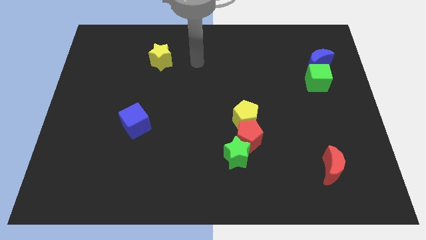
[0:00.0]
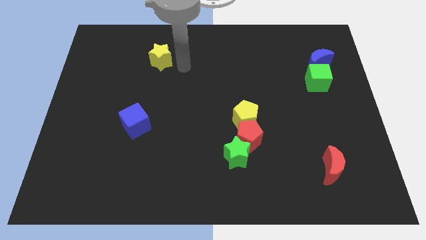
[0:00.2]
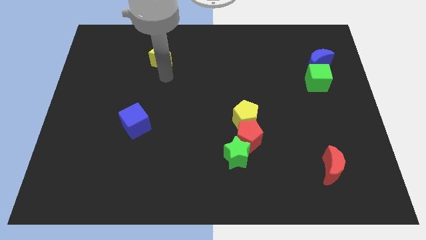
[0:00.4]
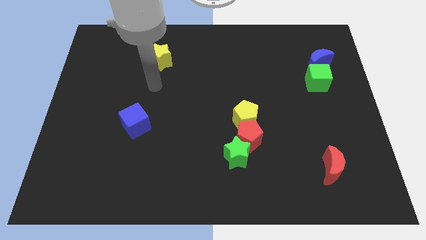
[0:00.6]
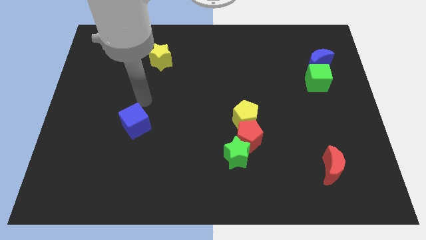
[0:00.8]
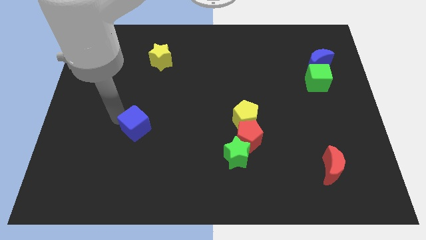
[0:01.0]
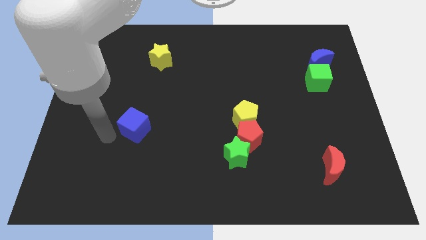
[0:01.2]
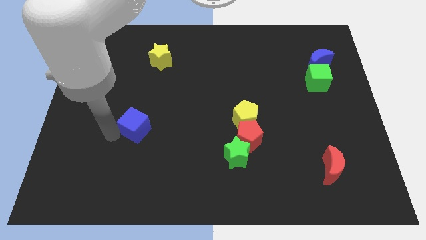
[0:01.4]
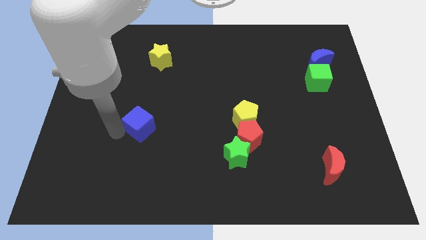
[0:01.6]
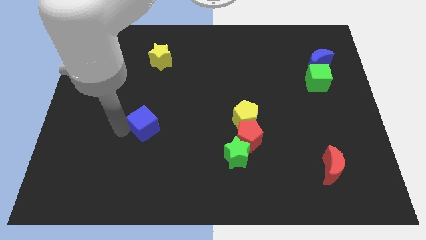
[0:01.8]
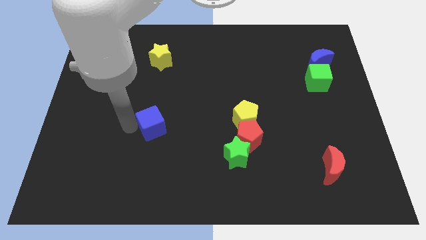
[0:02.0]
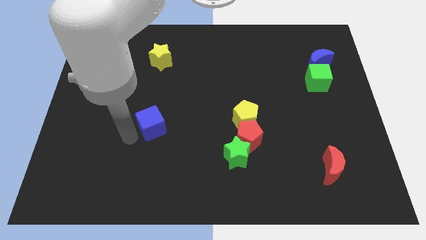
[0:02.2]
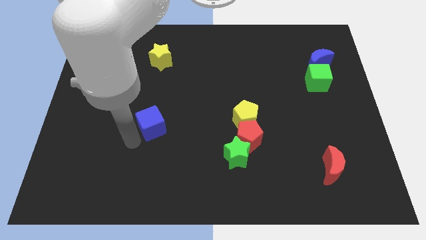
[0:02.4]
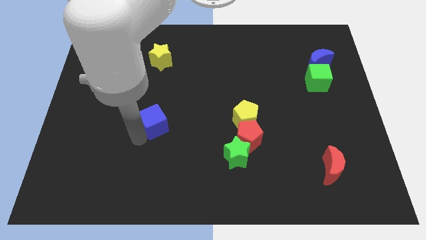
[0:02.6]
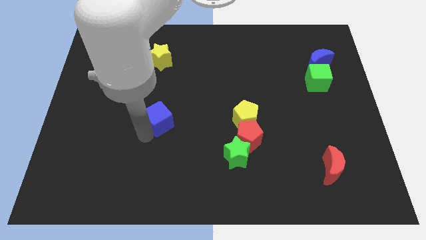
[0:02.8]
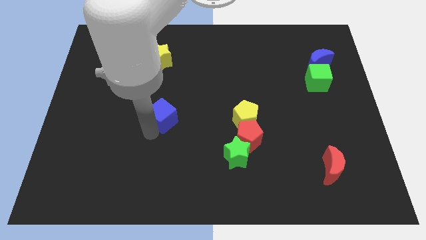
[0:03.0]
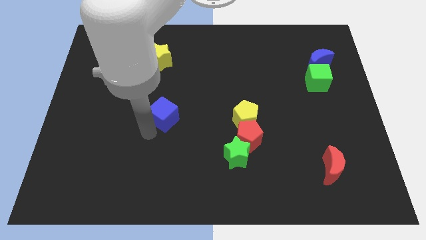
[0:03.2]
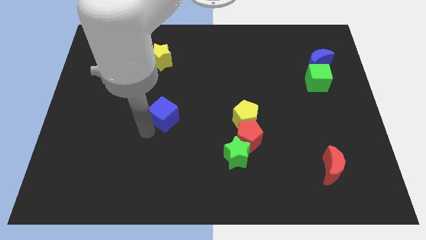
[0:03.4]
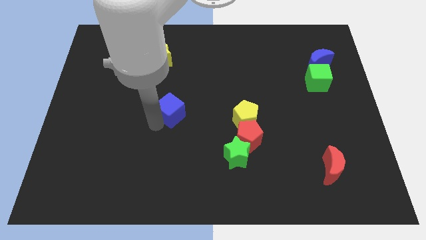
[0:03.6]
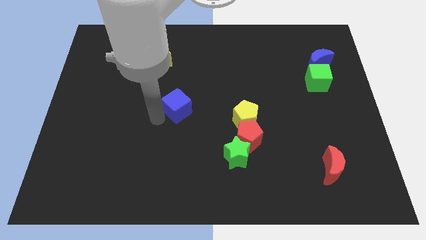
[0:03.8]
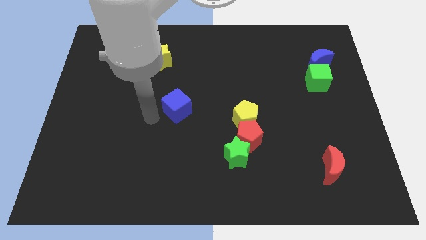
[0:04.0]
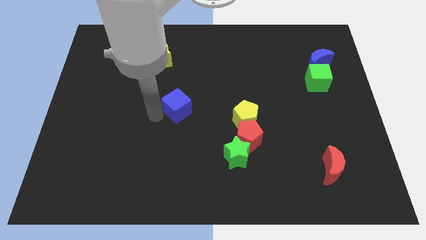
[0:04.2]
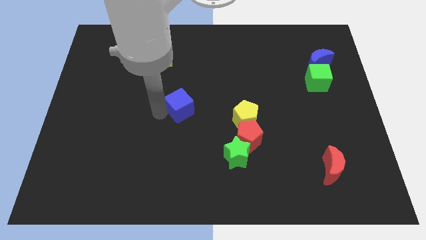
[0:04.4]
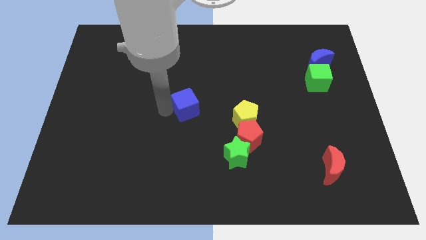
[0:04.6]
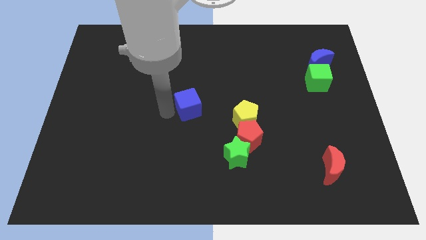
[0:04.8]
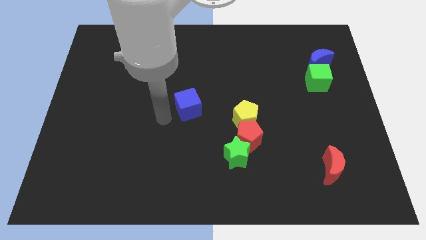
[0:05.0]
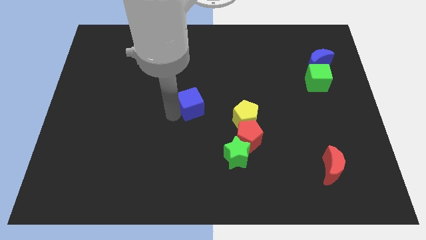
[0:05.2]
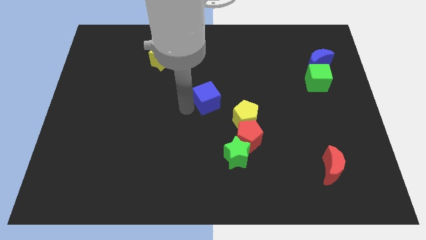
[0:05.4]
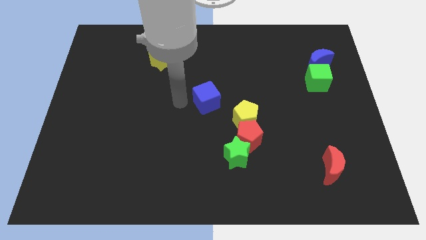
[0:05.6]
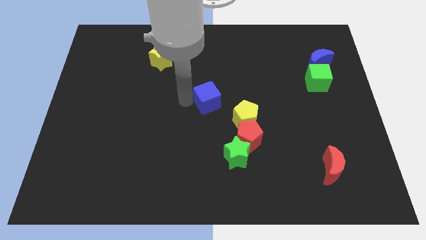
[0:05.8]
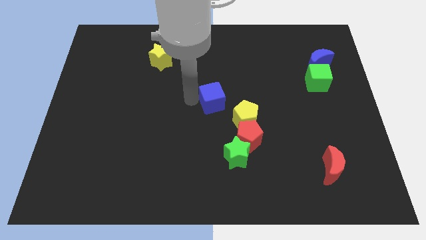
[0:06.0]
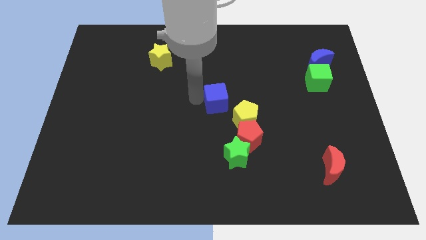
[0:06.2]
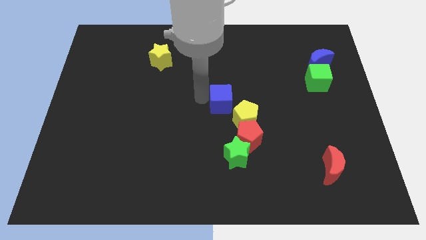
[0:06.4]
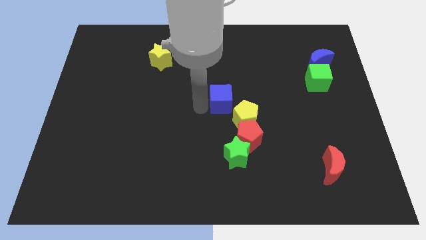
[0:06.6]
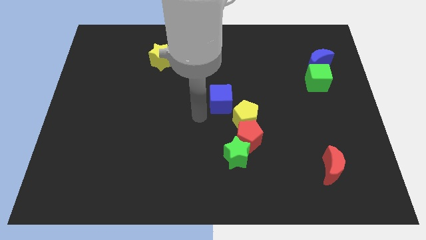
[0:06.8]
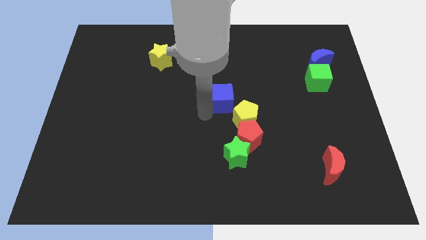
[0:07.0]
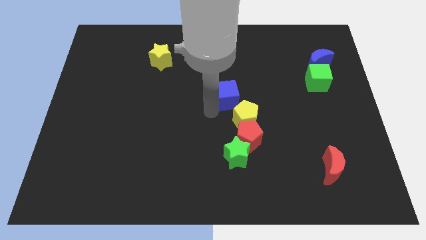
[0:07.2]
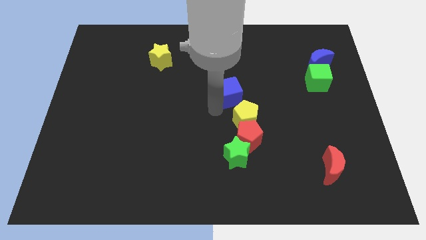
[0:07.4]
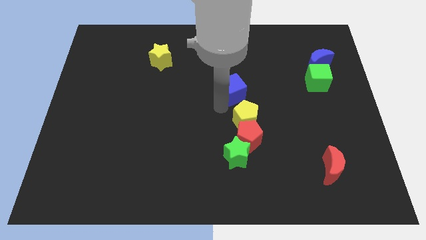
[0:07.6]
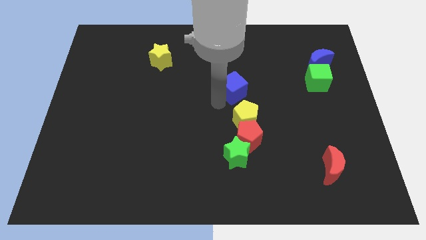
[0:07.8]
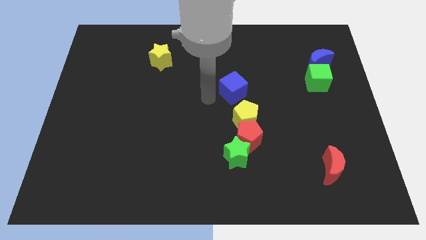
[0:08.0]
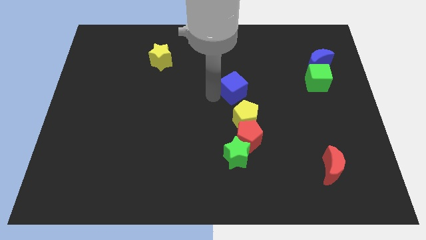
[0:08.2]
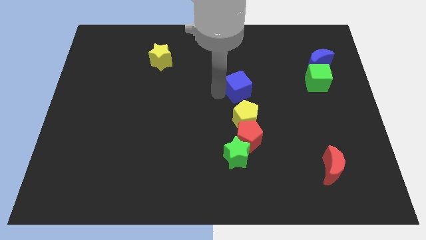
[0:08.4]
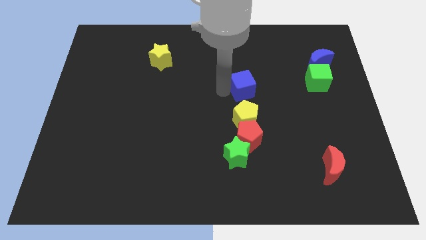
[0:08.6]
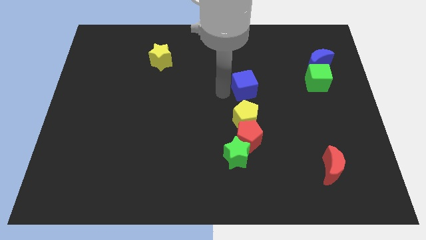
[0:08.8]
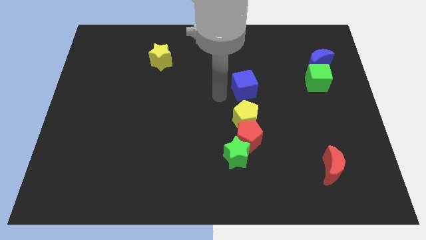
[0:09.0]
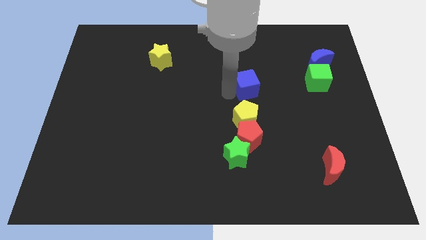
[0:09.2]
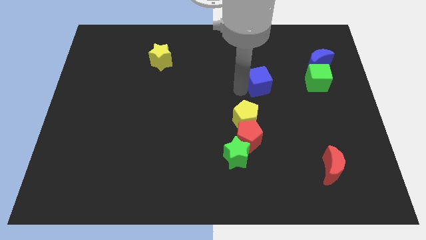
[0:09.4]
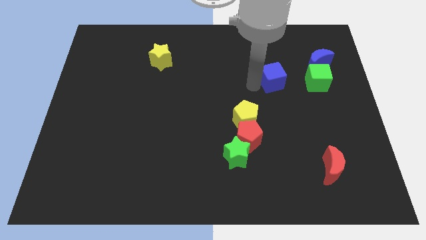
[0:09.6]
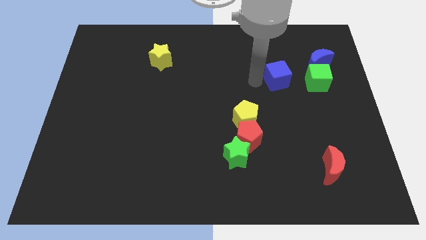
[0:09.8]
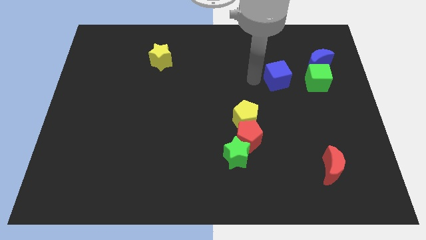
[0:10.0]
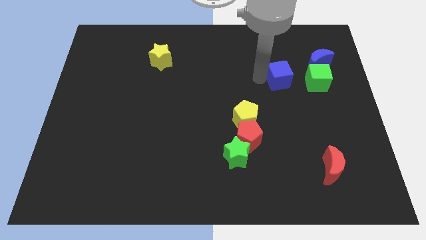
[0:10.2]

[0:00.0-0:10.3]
move the blue cube diagonally down and to the left of the blue moon

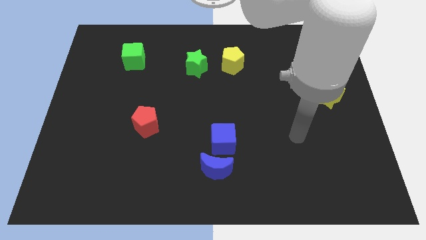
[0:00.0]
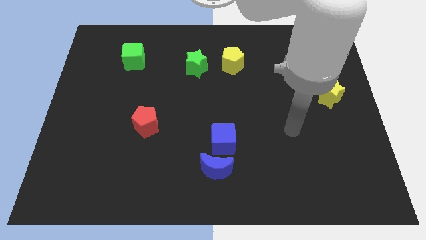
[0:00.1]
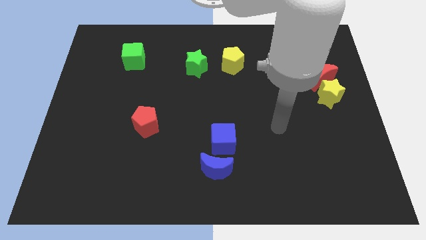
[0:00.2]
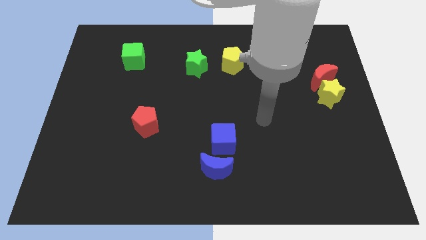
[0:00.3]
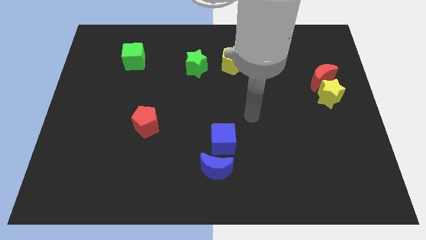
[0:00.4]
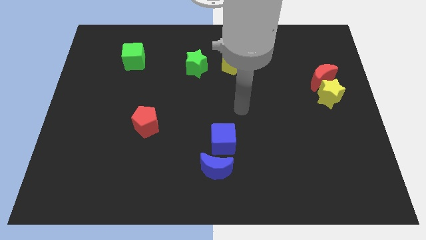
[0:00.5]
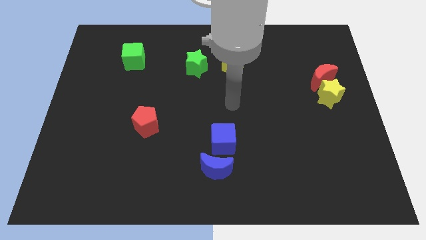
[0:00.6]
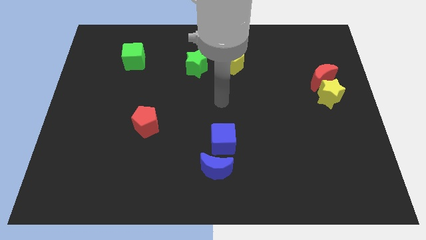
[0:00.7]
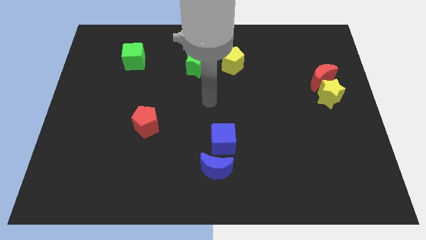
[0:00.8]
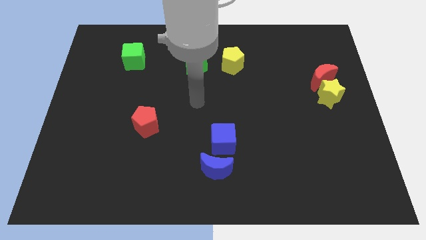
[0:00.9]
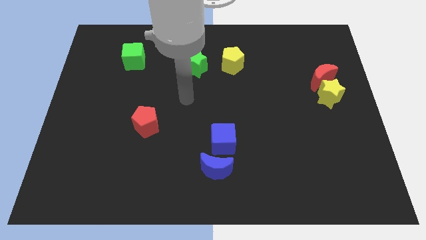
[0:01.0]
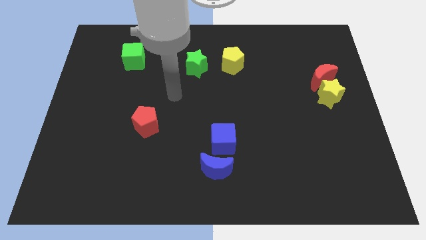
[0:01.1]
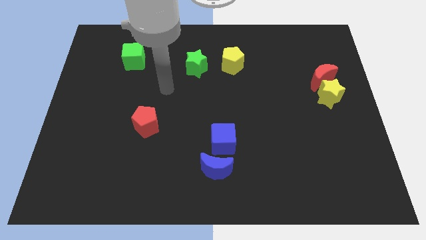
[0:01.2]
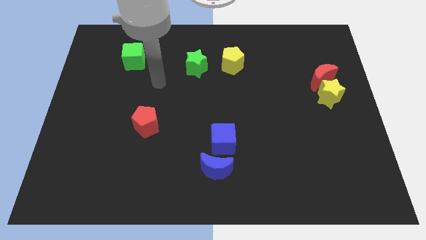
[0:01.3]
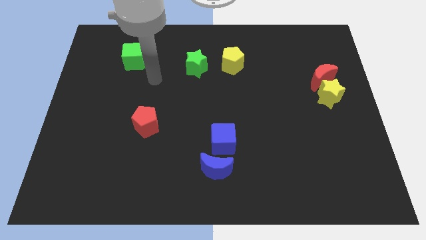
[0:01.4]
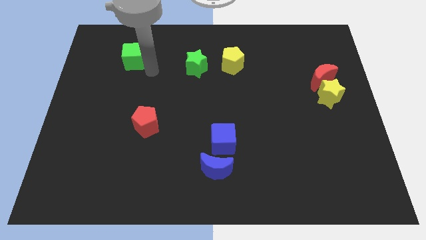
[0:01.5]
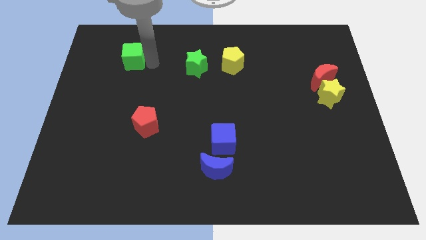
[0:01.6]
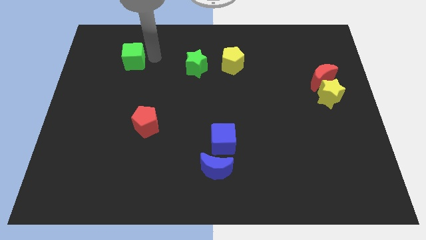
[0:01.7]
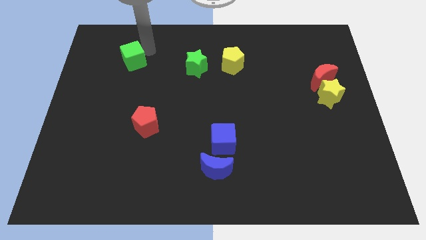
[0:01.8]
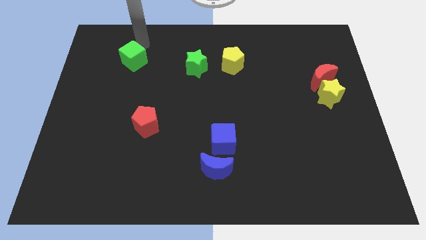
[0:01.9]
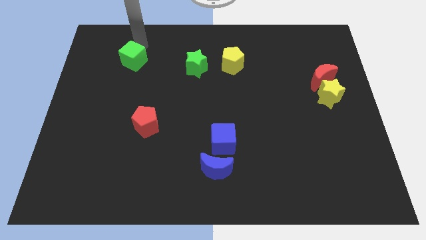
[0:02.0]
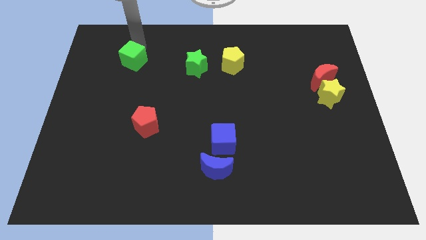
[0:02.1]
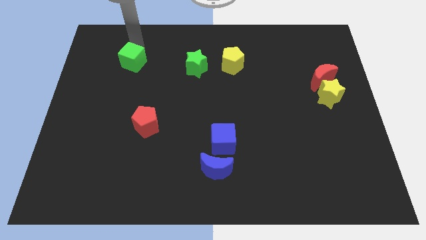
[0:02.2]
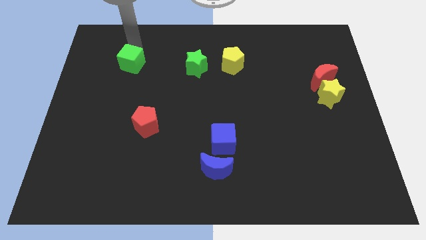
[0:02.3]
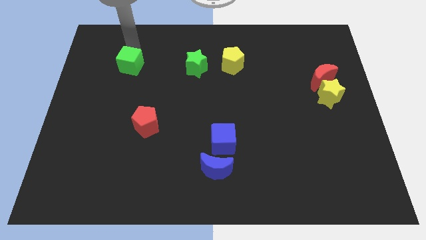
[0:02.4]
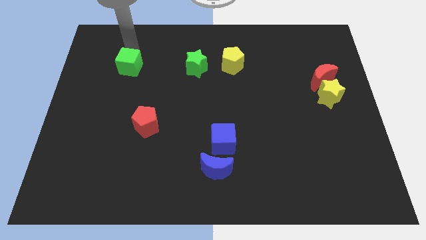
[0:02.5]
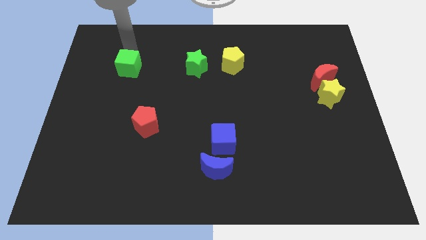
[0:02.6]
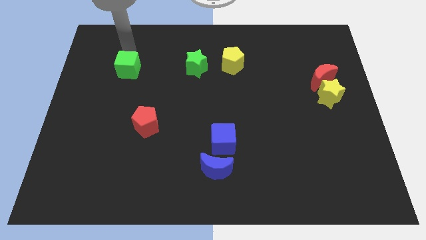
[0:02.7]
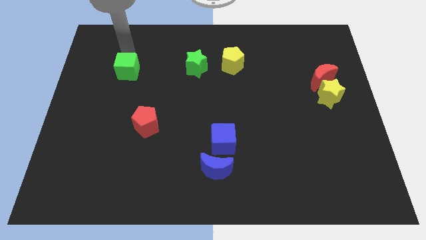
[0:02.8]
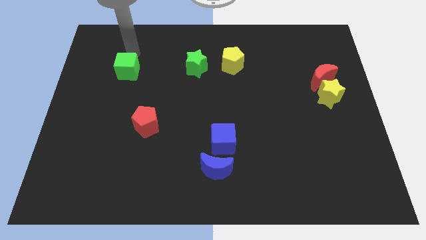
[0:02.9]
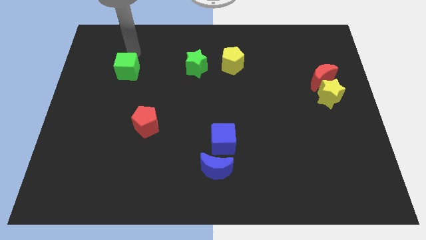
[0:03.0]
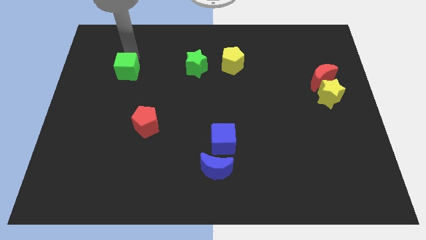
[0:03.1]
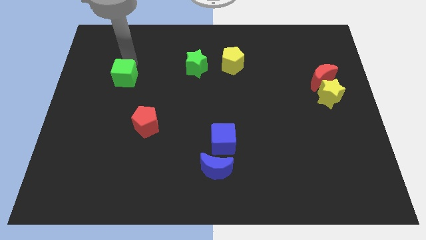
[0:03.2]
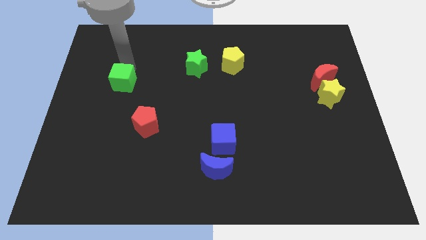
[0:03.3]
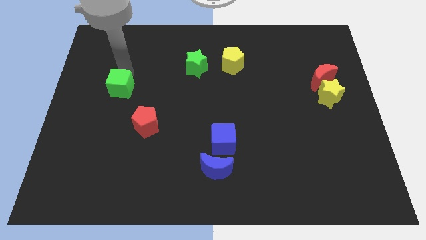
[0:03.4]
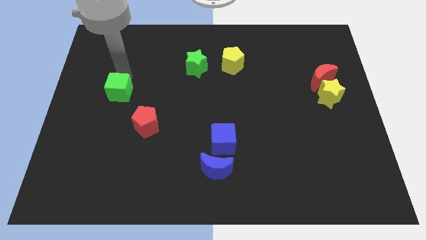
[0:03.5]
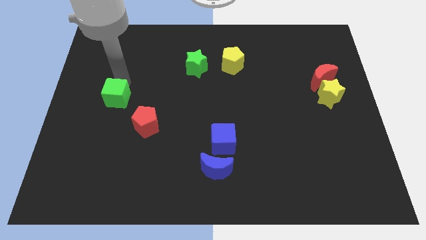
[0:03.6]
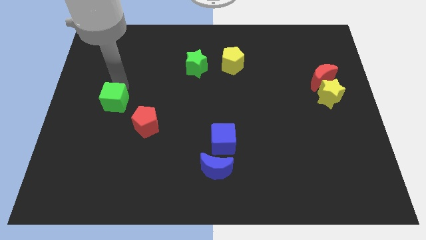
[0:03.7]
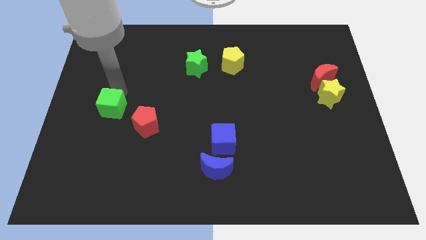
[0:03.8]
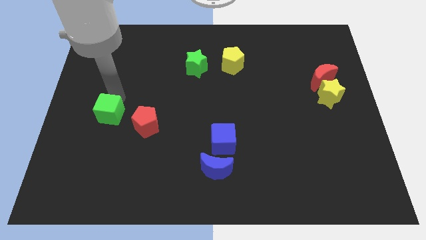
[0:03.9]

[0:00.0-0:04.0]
move the green cube to the left side of the red pentagon
